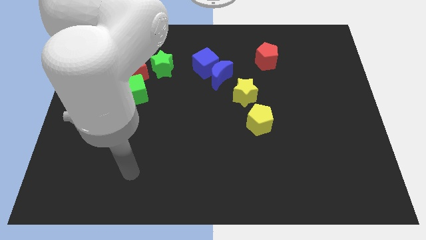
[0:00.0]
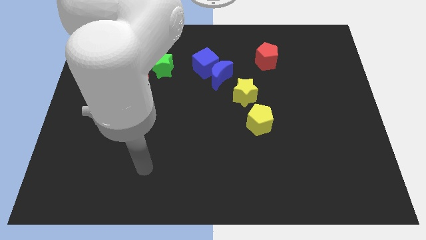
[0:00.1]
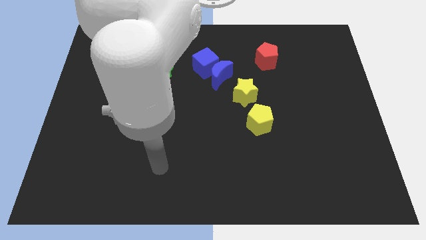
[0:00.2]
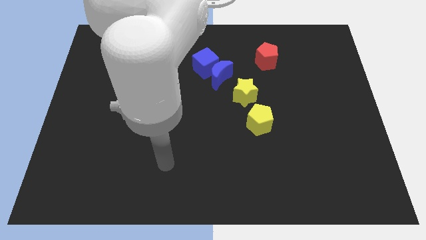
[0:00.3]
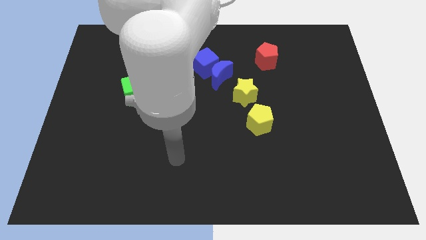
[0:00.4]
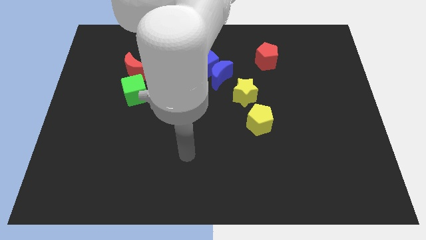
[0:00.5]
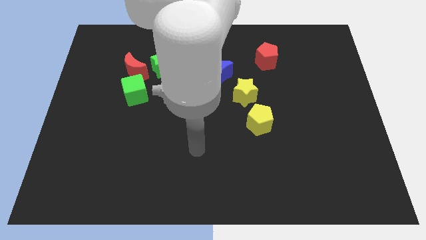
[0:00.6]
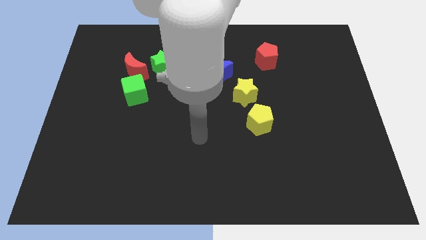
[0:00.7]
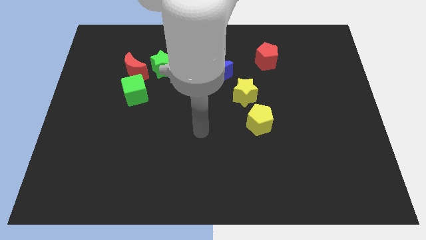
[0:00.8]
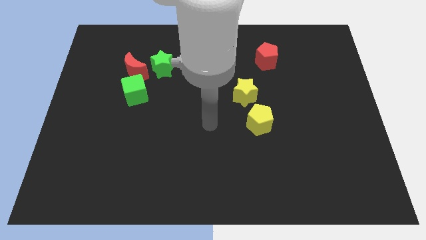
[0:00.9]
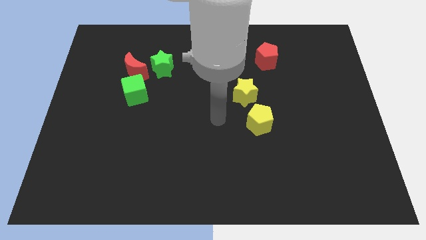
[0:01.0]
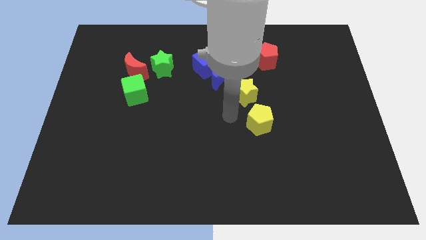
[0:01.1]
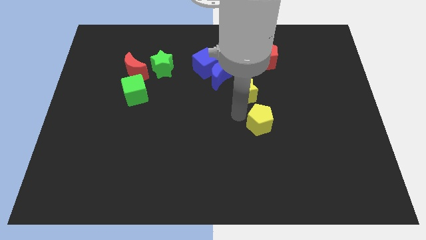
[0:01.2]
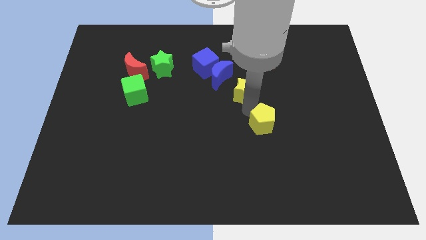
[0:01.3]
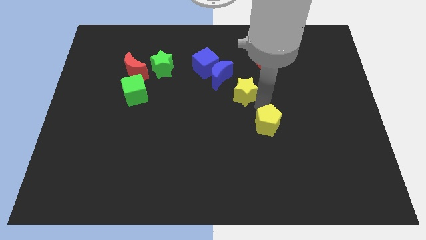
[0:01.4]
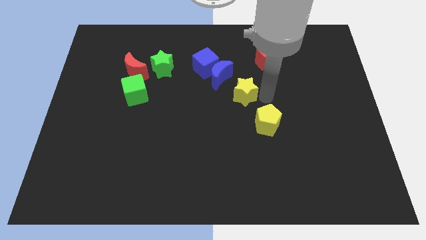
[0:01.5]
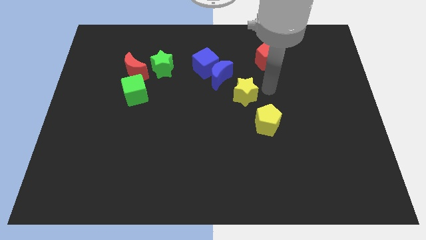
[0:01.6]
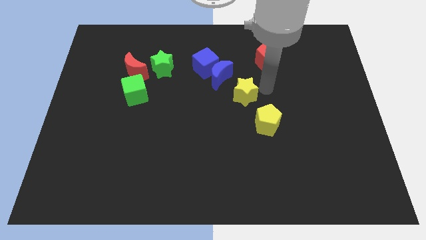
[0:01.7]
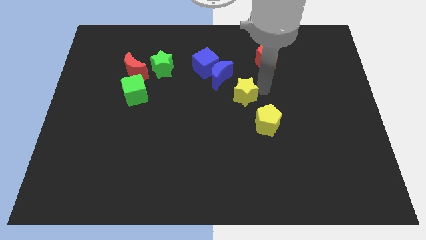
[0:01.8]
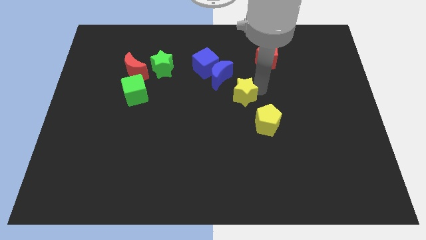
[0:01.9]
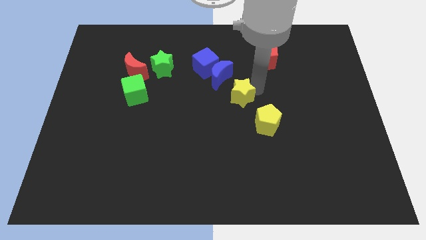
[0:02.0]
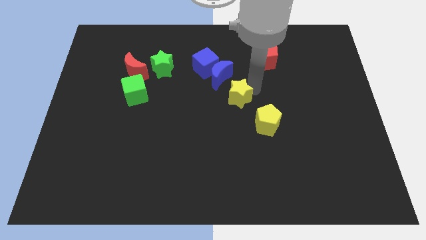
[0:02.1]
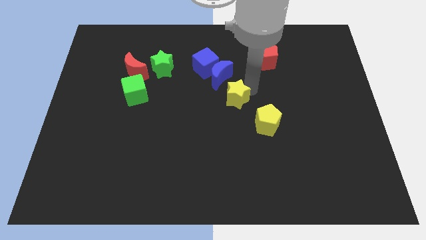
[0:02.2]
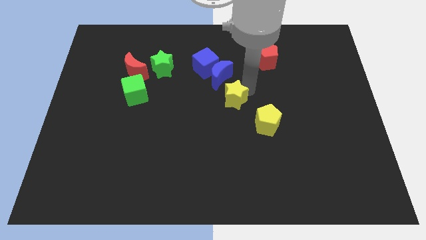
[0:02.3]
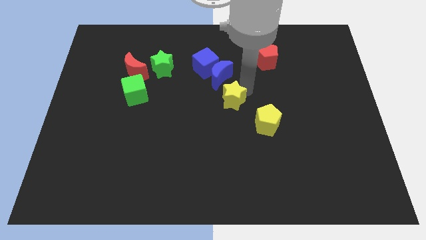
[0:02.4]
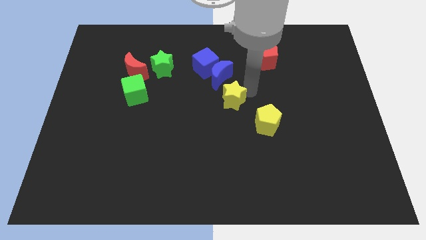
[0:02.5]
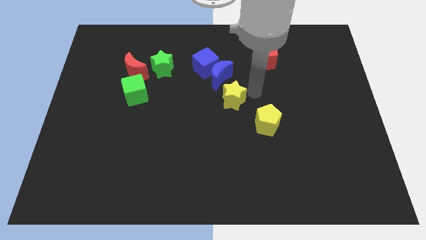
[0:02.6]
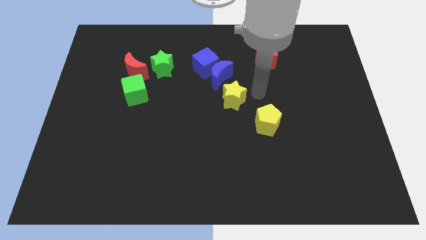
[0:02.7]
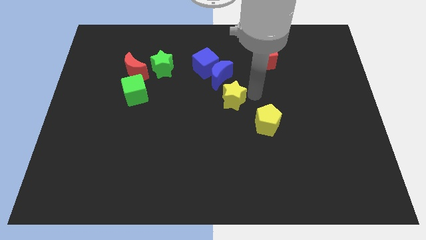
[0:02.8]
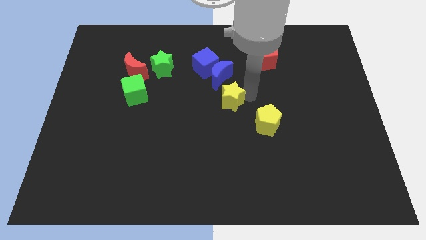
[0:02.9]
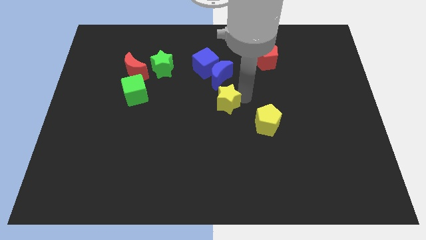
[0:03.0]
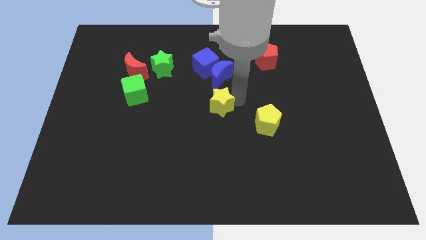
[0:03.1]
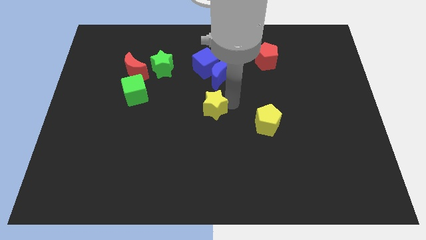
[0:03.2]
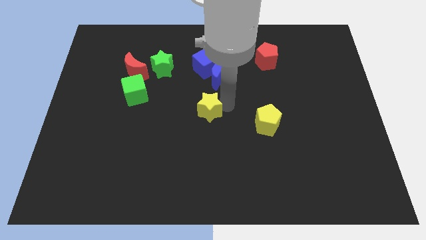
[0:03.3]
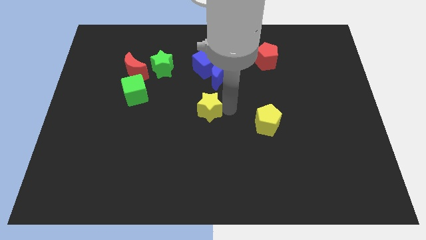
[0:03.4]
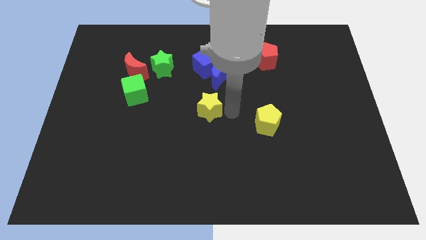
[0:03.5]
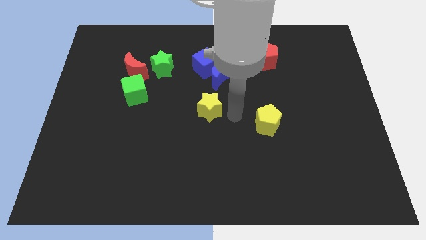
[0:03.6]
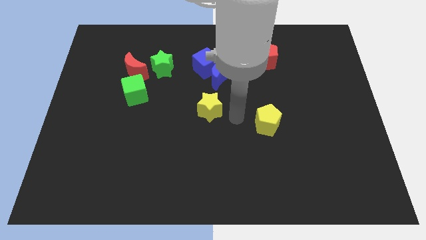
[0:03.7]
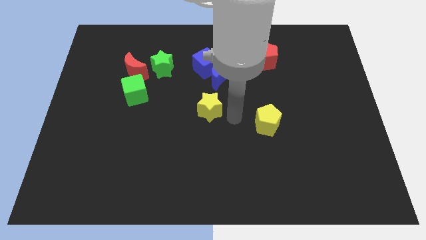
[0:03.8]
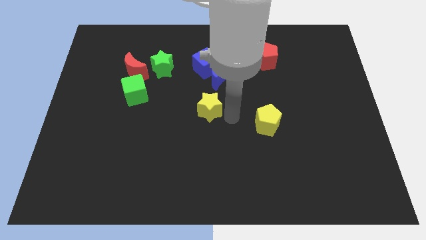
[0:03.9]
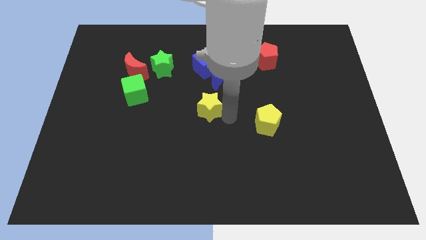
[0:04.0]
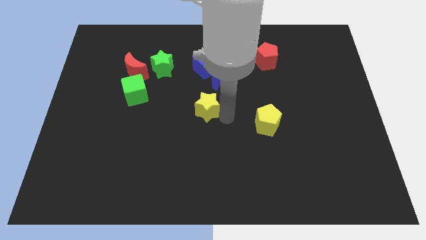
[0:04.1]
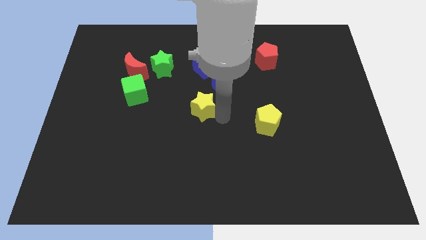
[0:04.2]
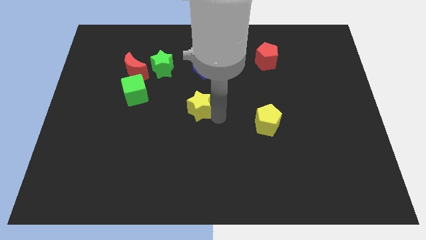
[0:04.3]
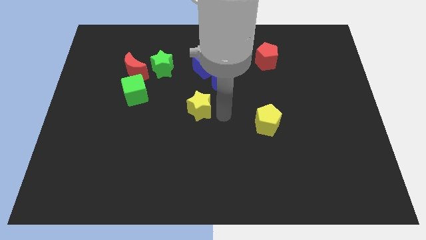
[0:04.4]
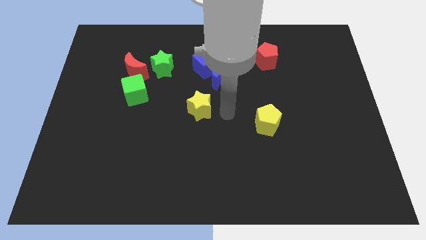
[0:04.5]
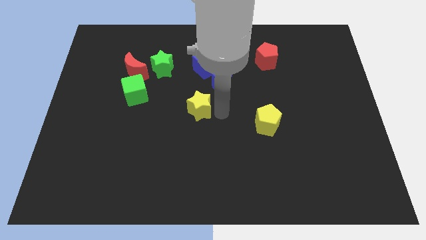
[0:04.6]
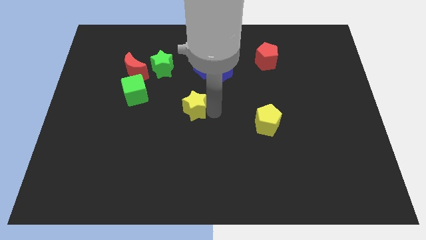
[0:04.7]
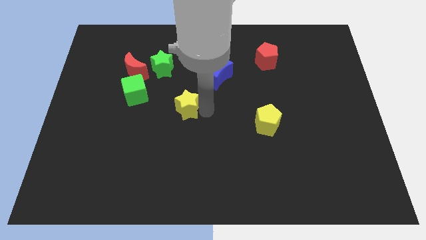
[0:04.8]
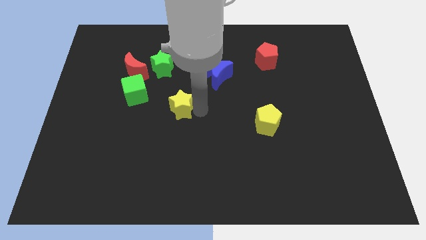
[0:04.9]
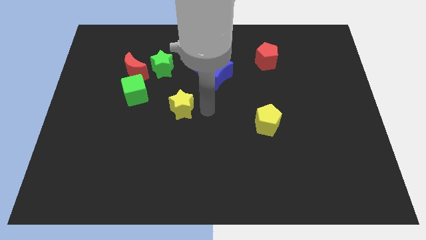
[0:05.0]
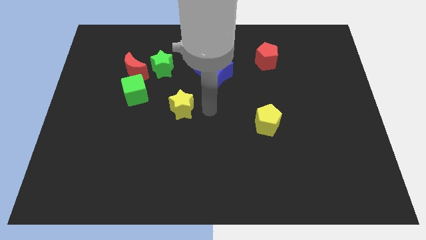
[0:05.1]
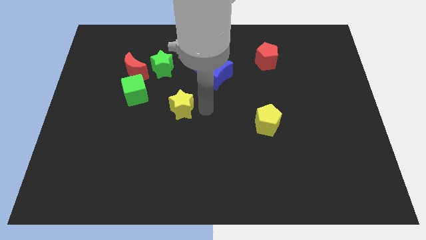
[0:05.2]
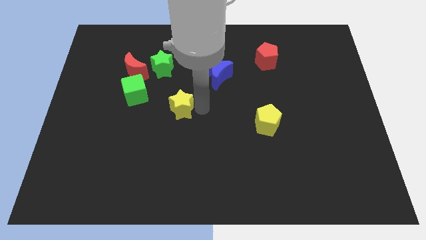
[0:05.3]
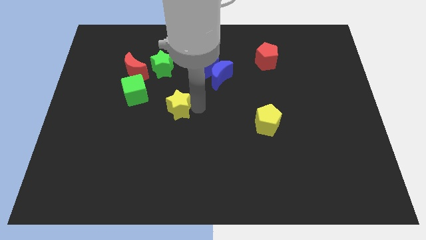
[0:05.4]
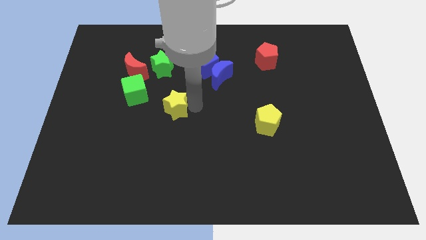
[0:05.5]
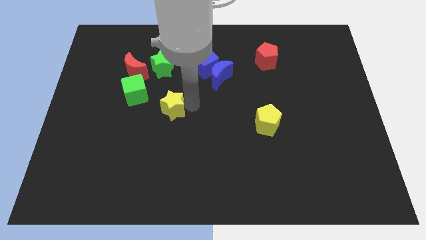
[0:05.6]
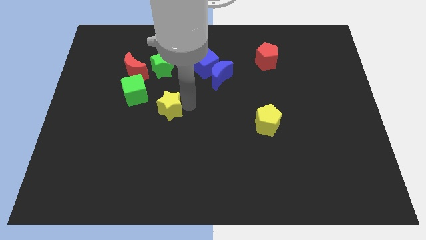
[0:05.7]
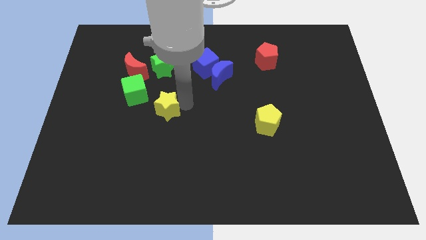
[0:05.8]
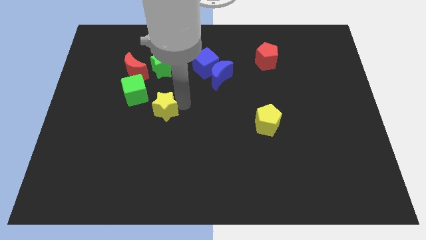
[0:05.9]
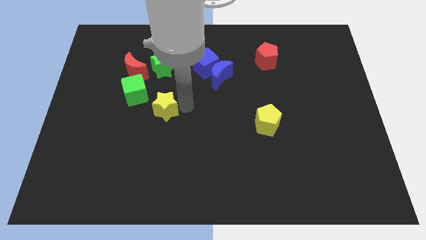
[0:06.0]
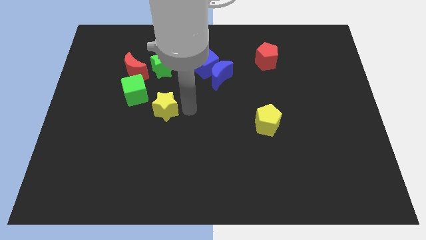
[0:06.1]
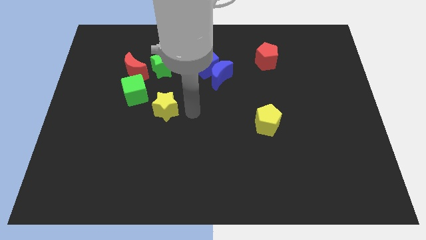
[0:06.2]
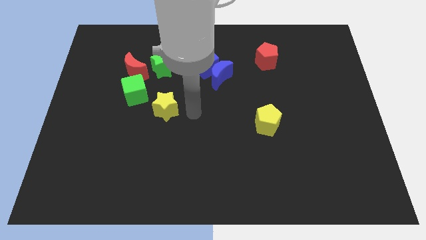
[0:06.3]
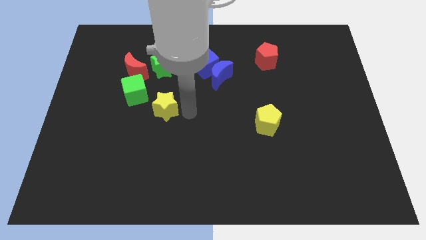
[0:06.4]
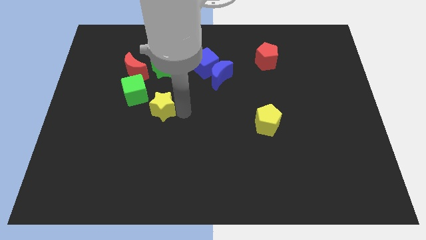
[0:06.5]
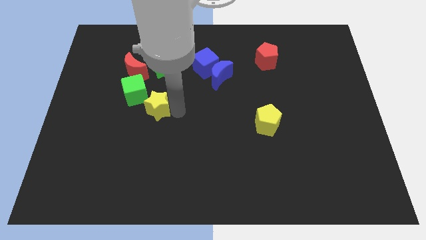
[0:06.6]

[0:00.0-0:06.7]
slide the yellow star to the left

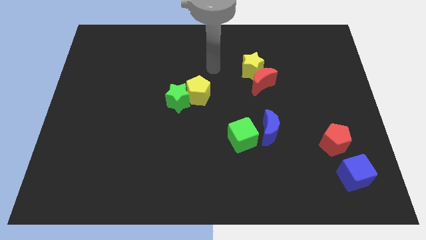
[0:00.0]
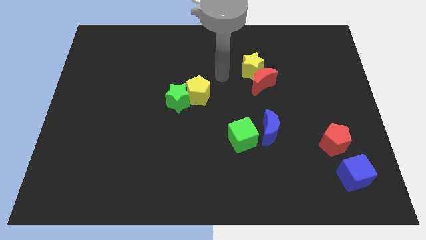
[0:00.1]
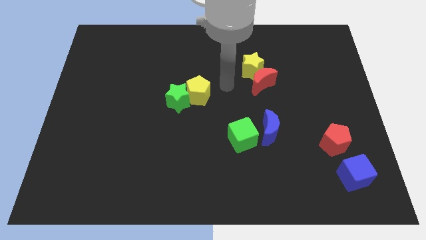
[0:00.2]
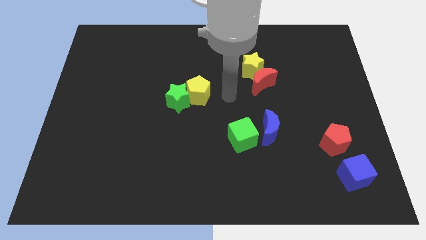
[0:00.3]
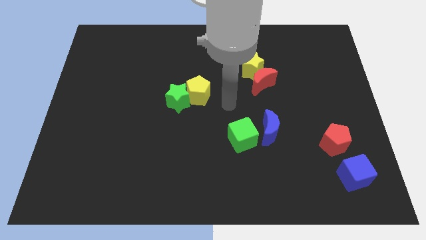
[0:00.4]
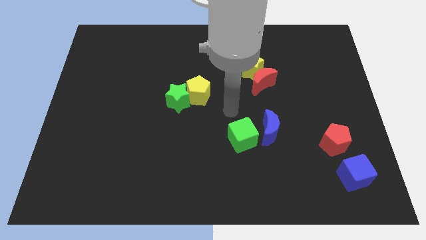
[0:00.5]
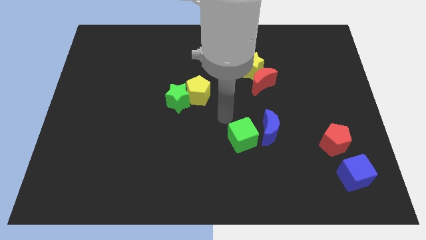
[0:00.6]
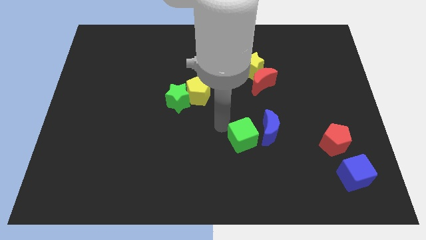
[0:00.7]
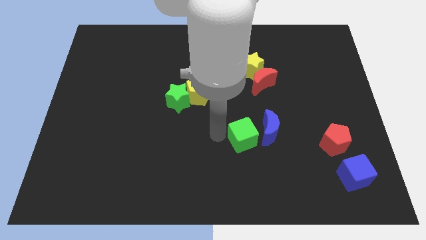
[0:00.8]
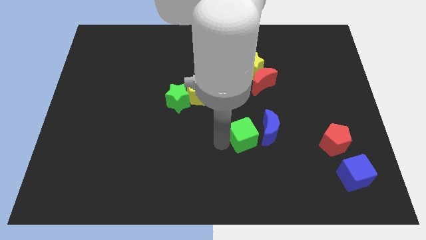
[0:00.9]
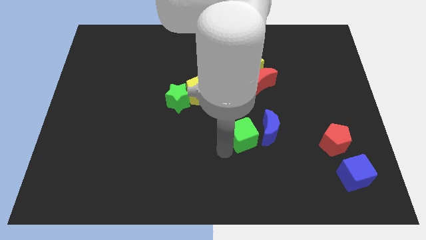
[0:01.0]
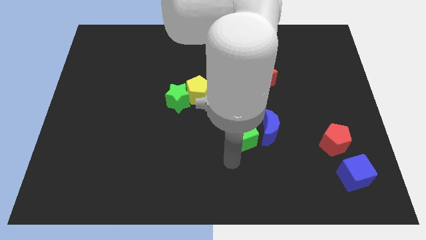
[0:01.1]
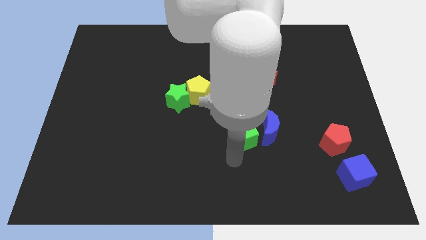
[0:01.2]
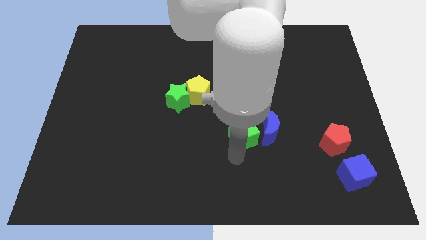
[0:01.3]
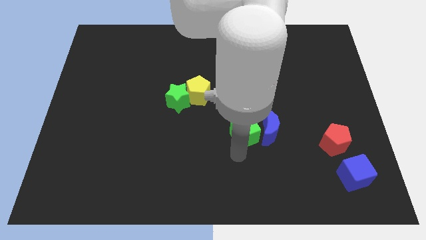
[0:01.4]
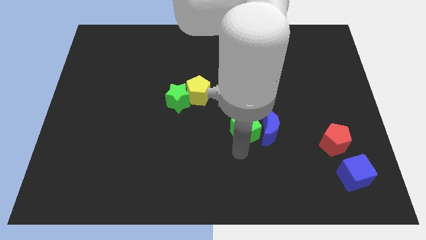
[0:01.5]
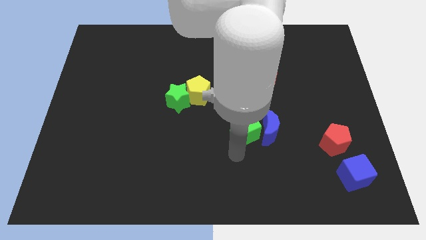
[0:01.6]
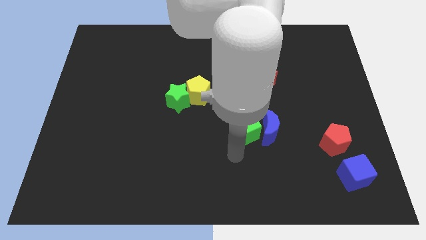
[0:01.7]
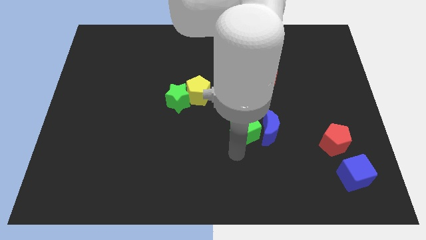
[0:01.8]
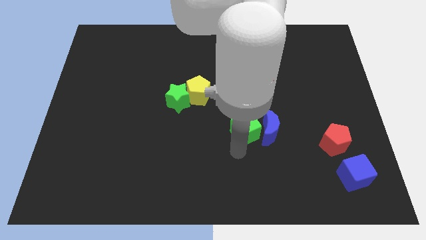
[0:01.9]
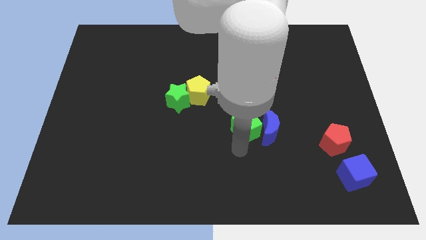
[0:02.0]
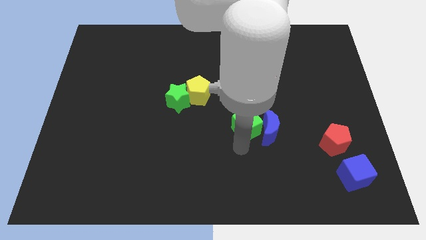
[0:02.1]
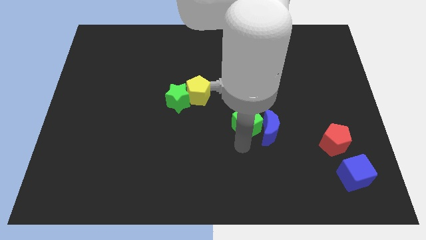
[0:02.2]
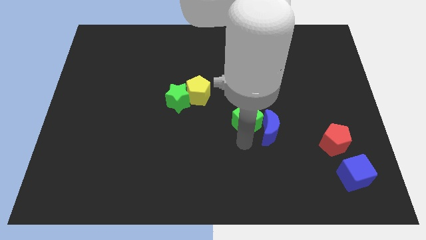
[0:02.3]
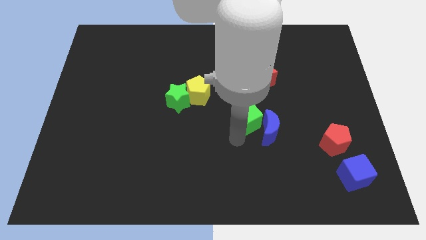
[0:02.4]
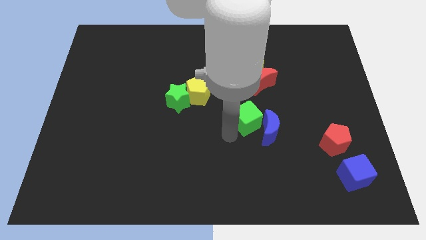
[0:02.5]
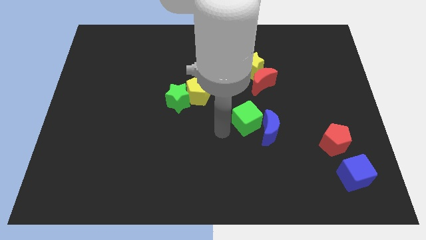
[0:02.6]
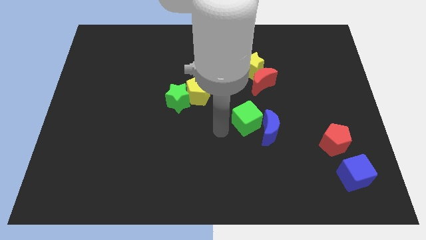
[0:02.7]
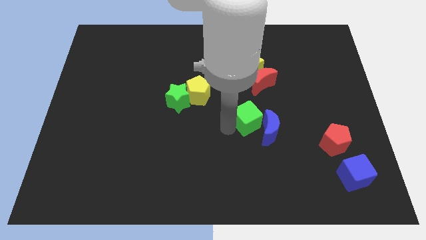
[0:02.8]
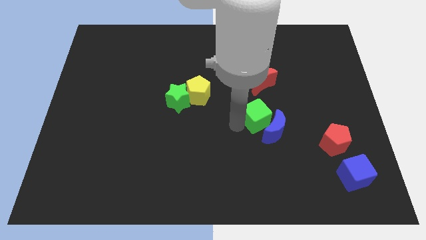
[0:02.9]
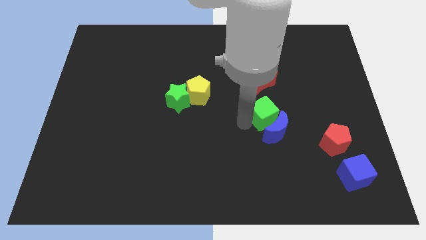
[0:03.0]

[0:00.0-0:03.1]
push the green cube diagonally up and to the right a bit
